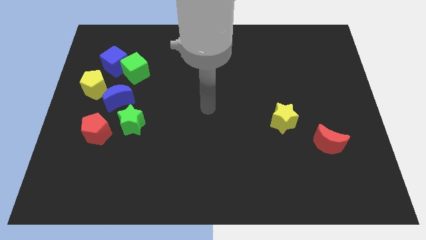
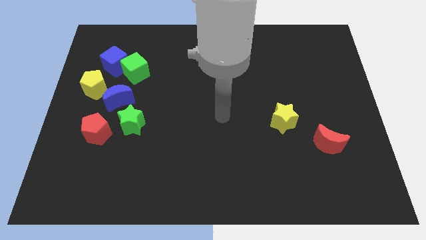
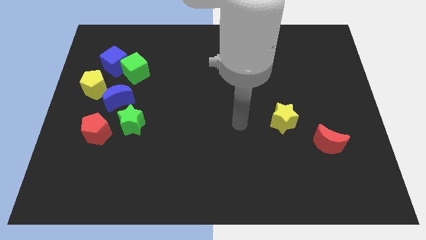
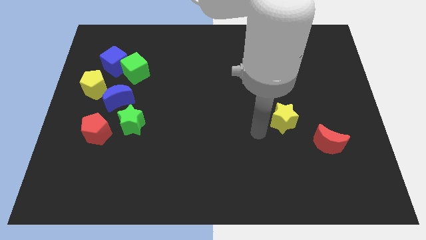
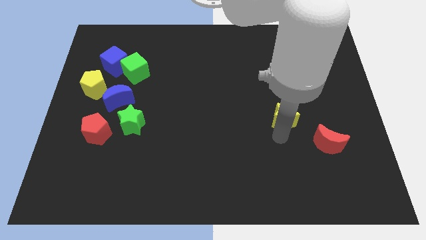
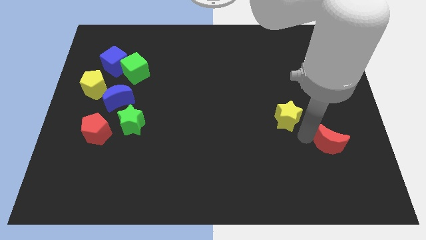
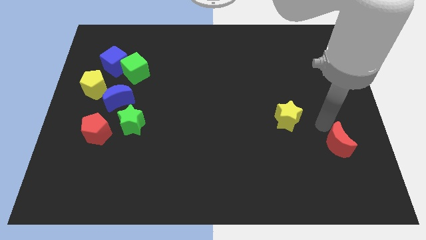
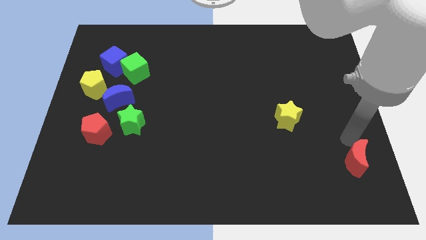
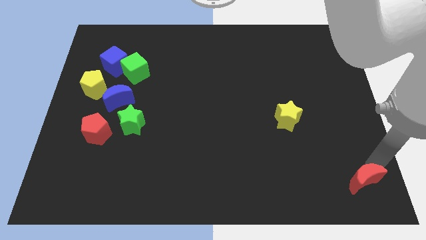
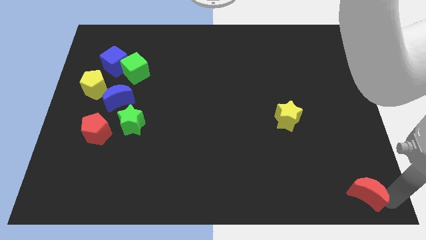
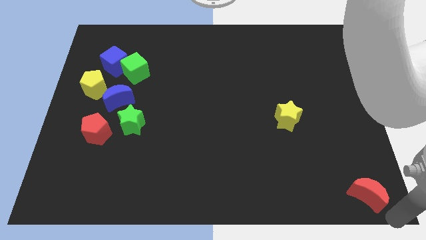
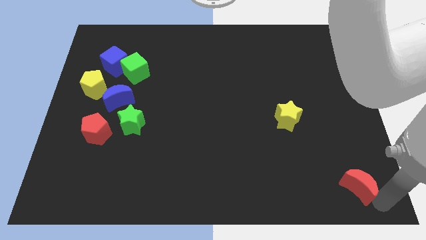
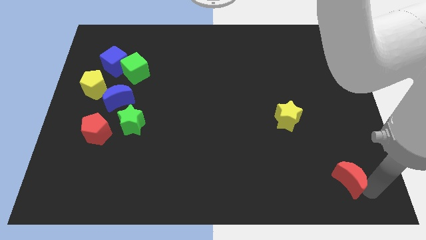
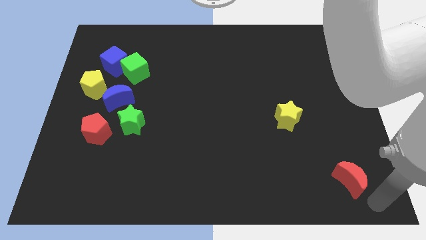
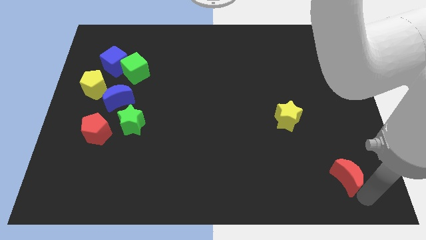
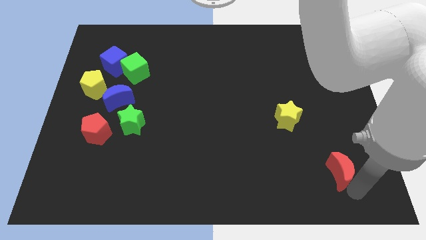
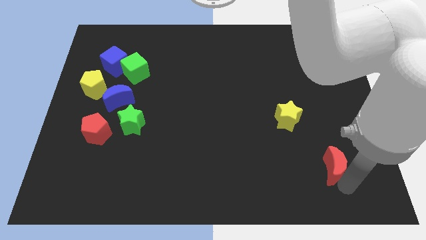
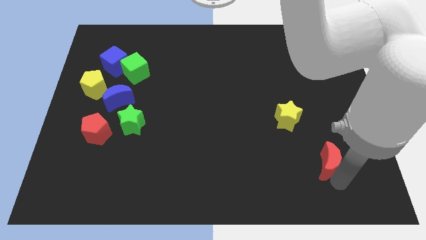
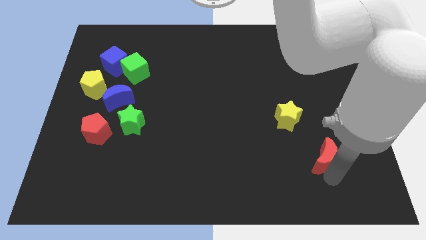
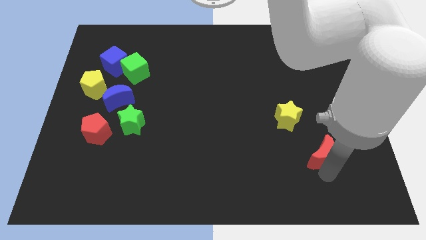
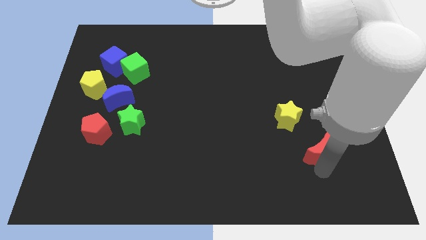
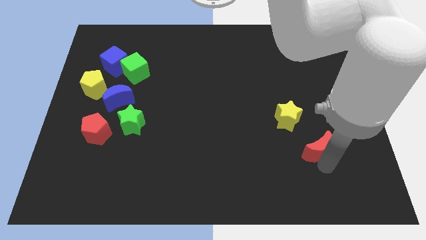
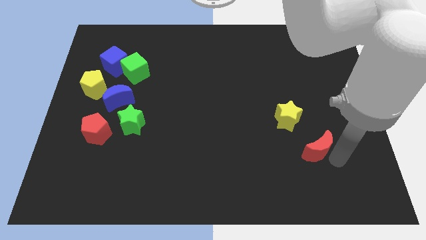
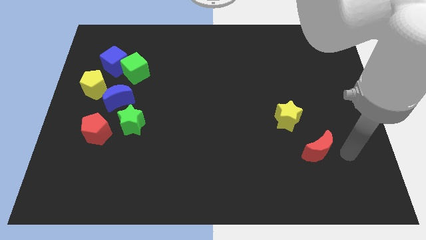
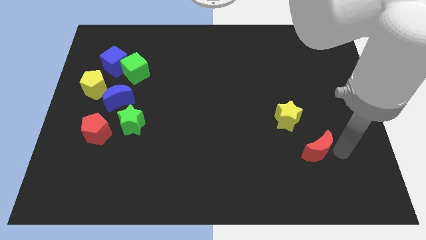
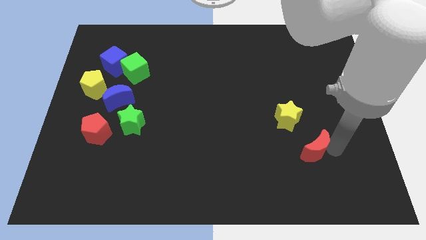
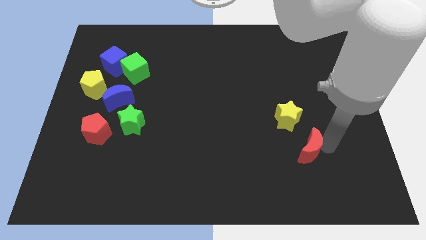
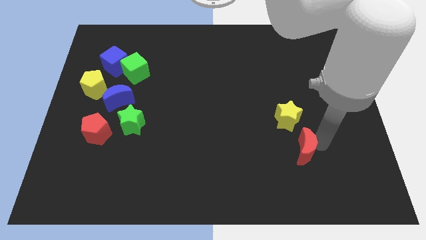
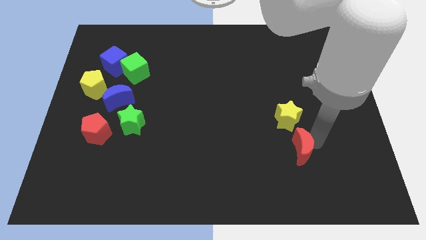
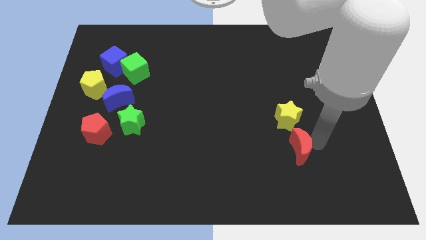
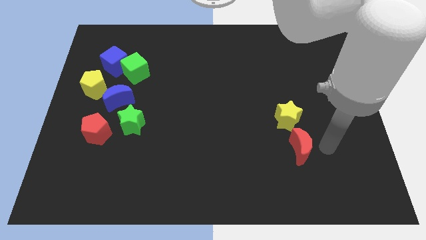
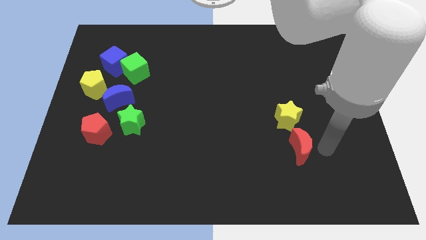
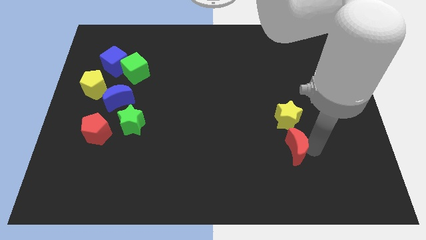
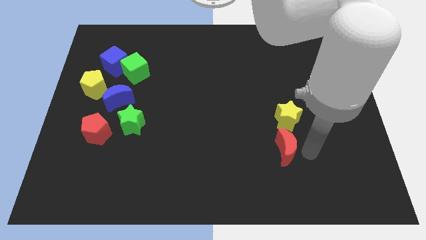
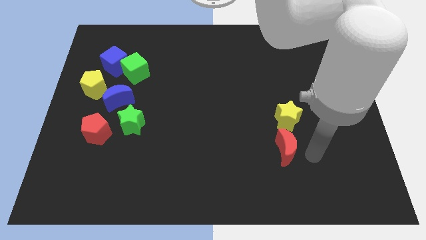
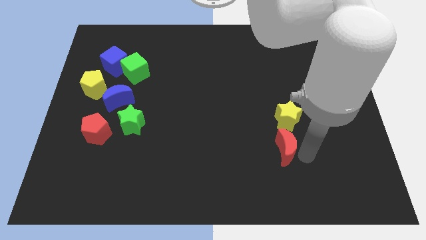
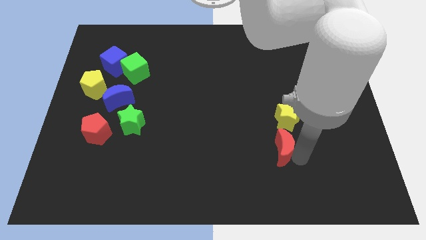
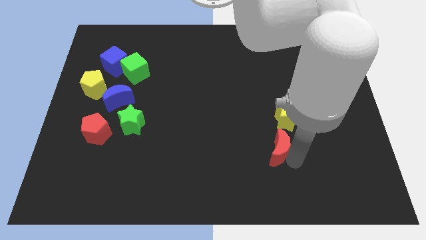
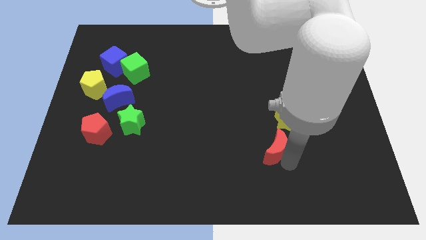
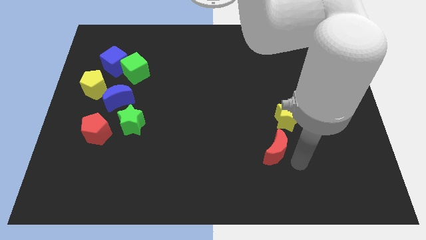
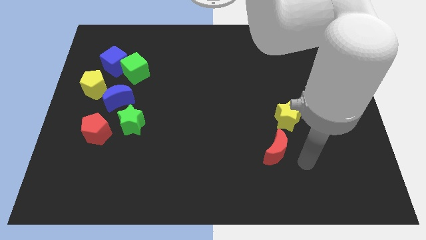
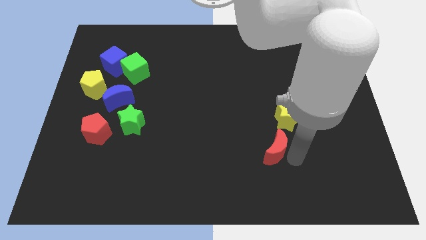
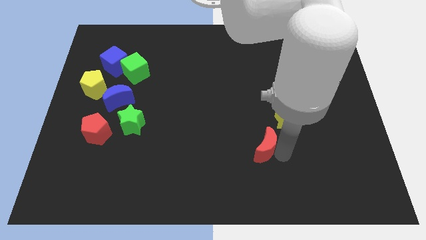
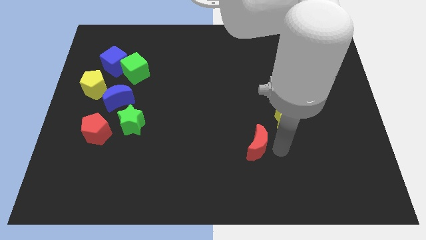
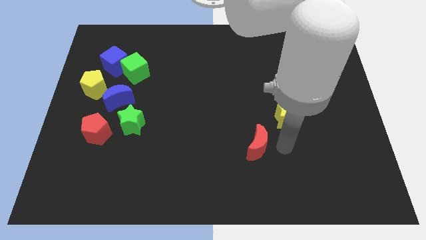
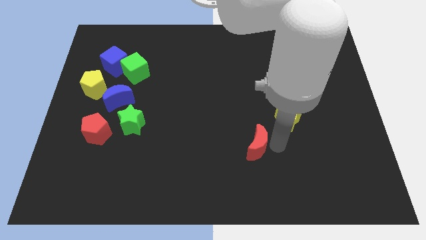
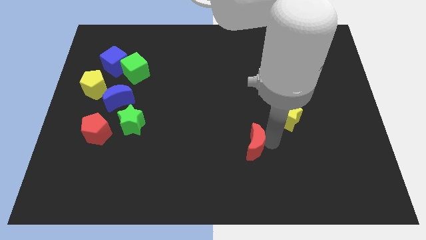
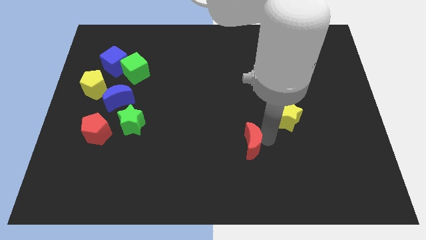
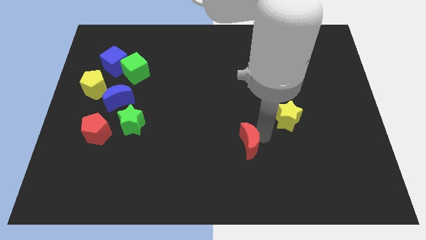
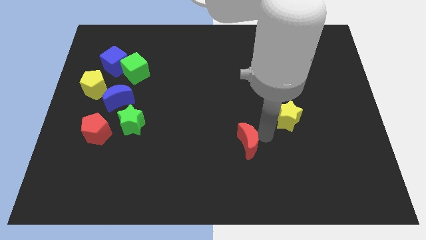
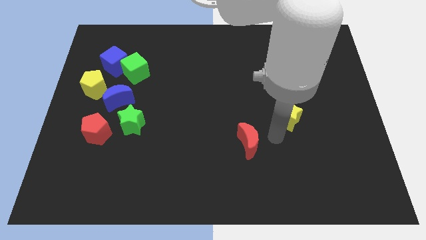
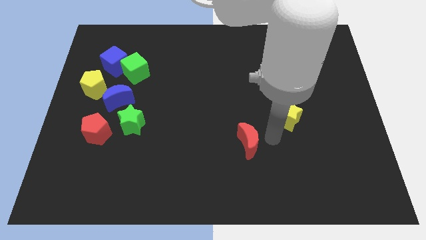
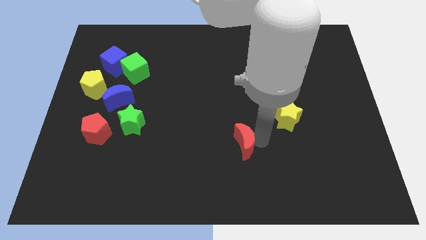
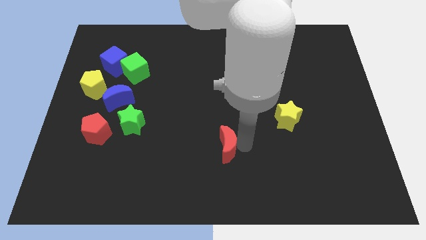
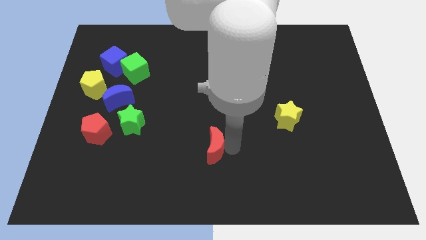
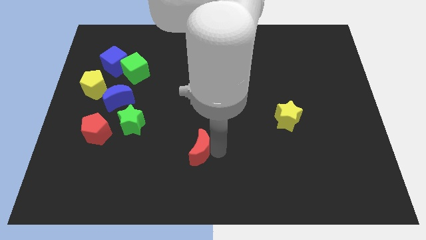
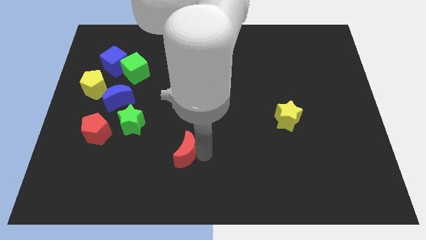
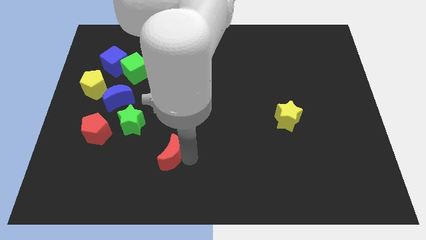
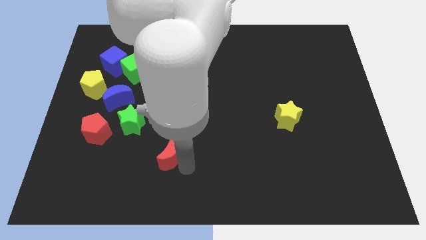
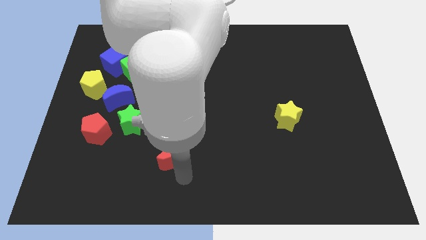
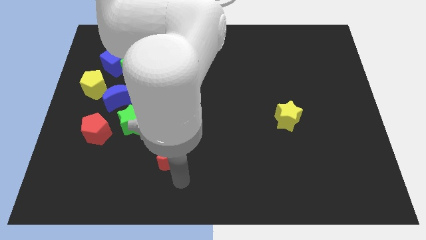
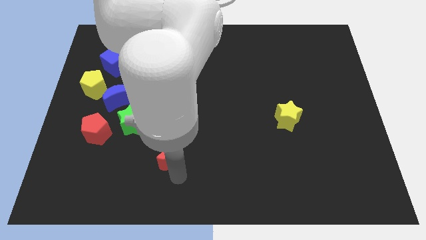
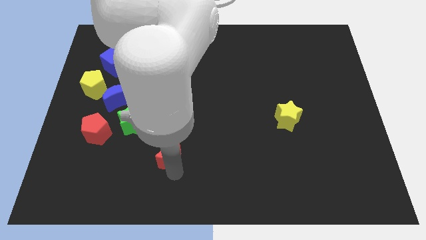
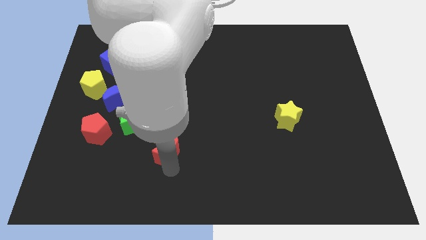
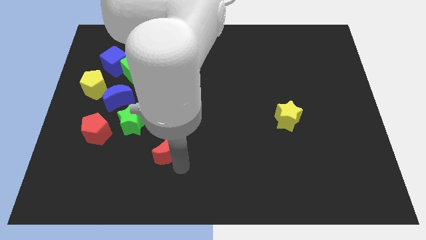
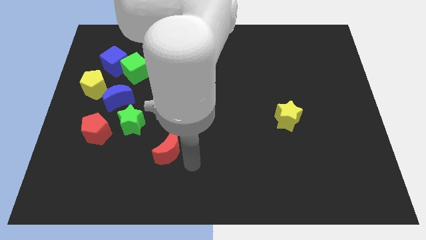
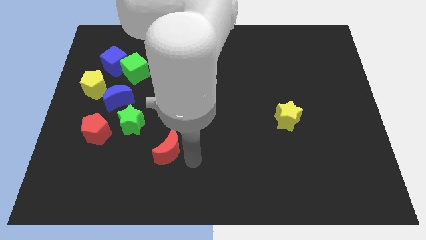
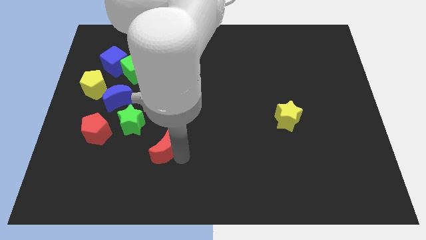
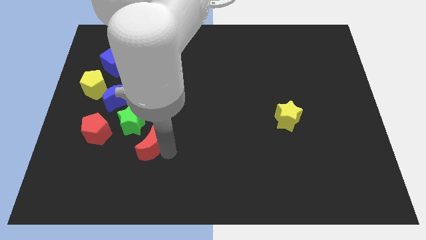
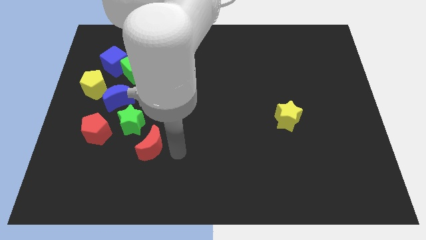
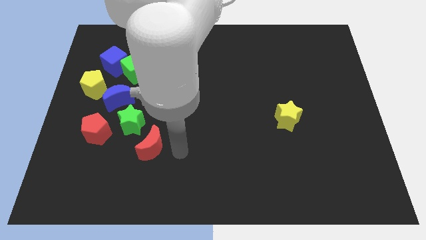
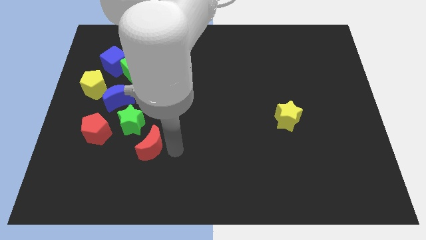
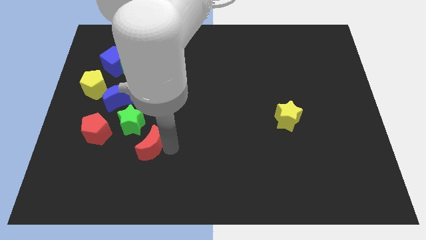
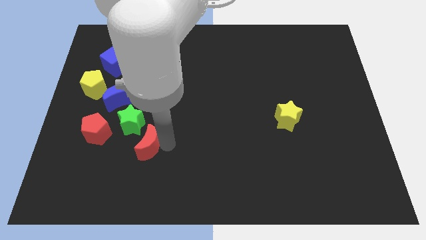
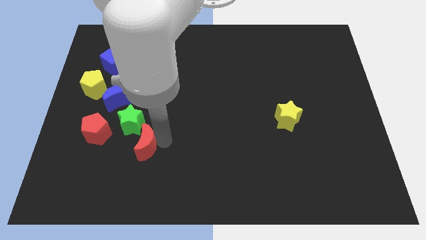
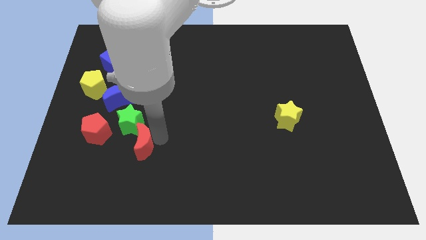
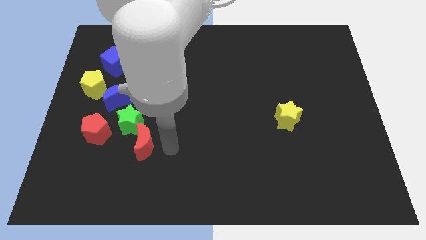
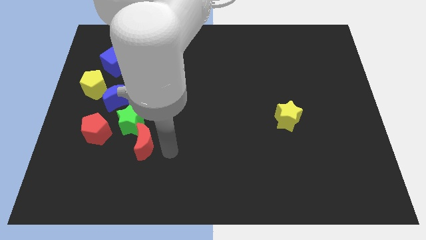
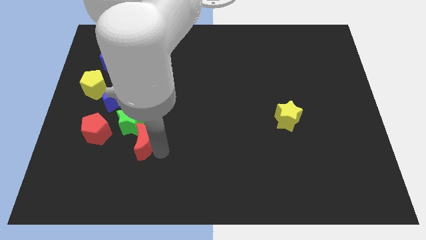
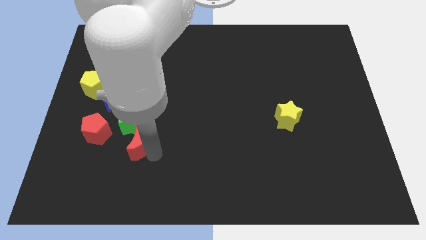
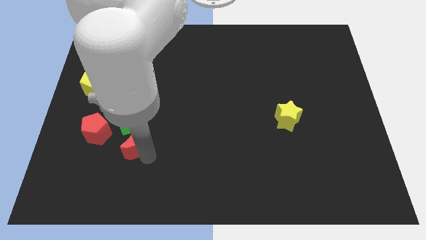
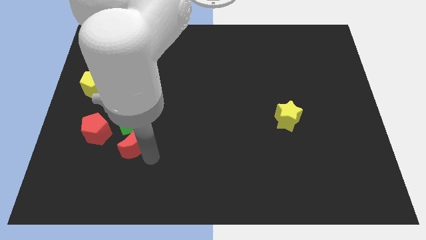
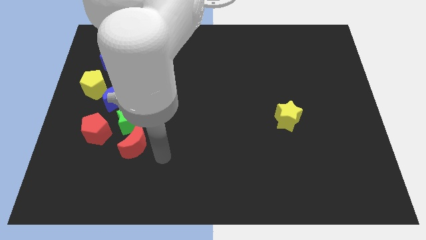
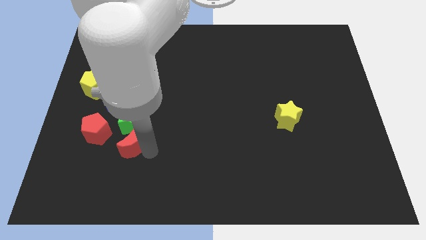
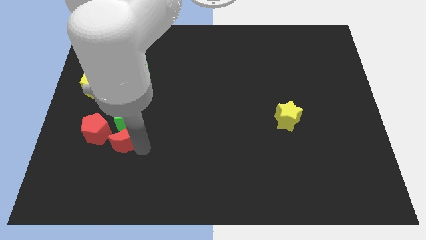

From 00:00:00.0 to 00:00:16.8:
push the red moon to the bottom side of the blue moon
